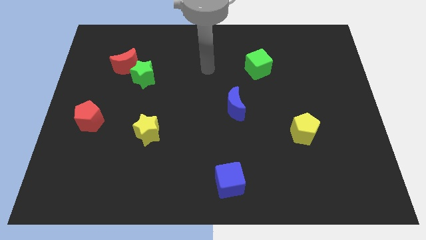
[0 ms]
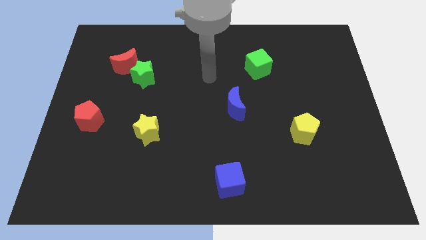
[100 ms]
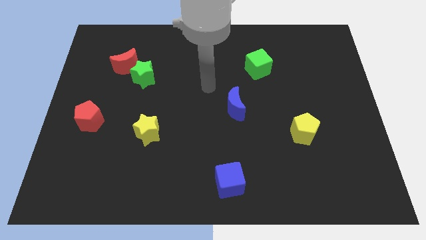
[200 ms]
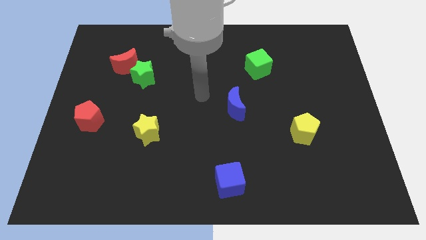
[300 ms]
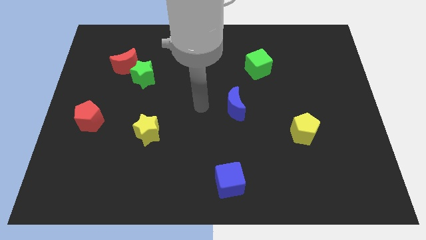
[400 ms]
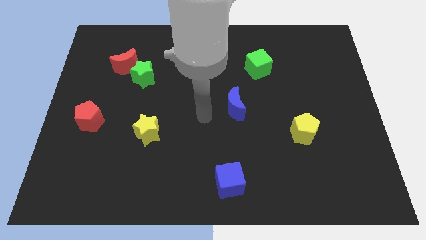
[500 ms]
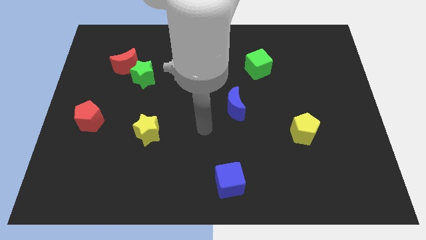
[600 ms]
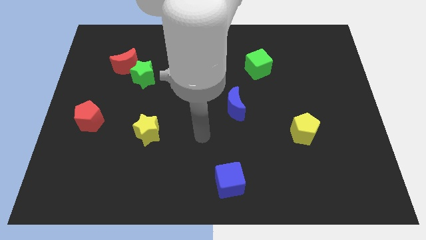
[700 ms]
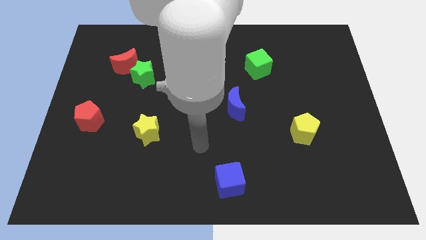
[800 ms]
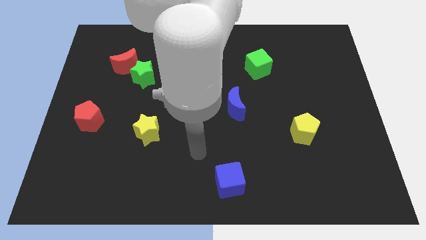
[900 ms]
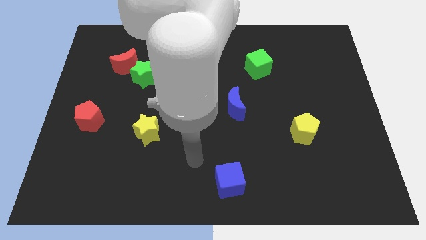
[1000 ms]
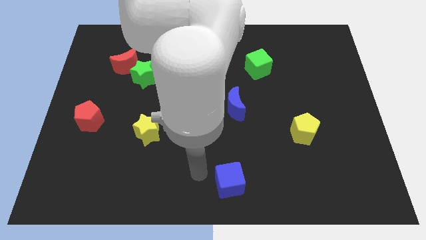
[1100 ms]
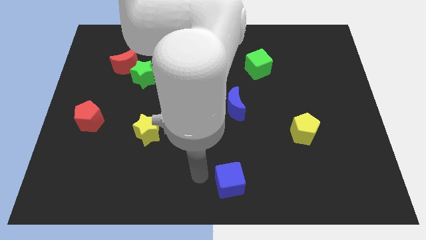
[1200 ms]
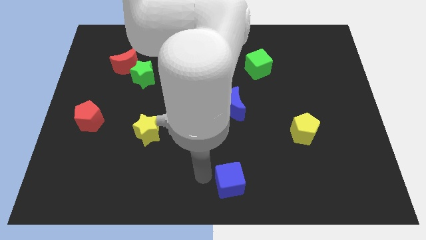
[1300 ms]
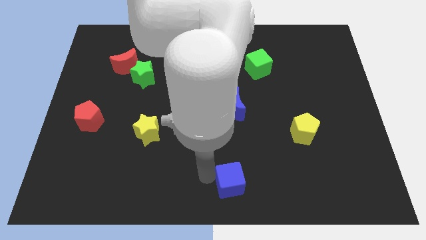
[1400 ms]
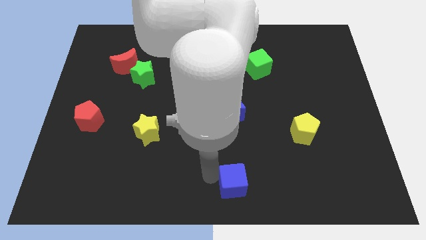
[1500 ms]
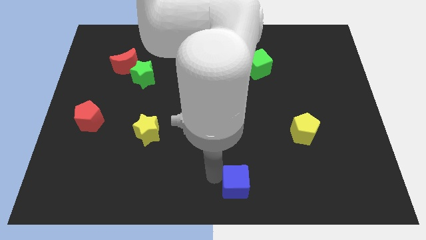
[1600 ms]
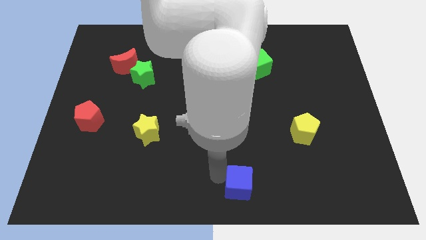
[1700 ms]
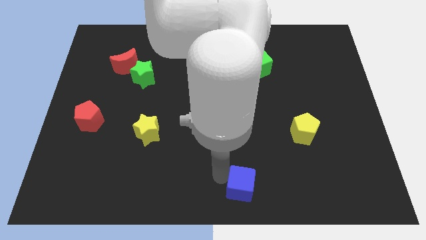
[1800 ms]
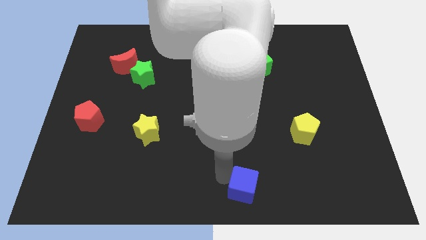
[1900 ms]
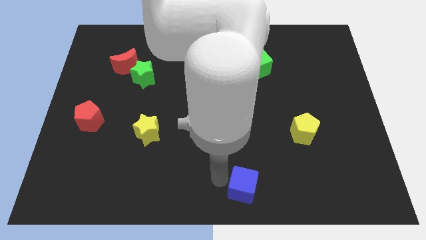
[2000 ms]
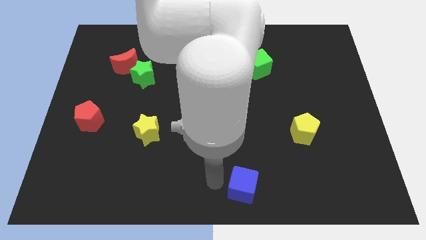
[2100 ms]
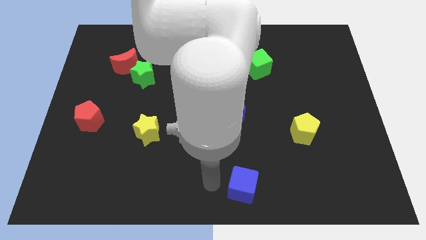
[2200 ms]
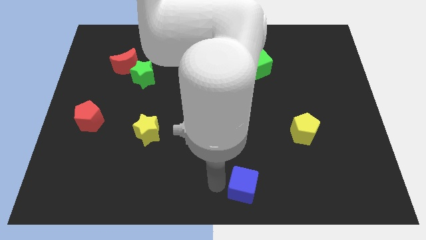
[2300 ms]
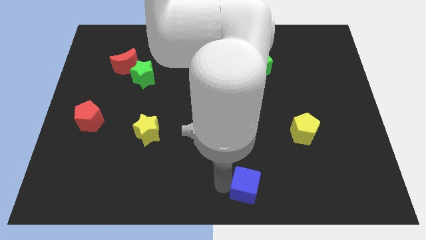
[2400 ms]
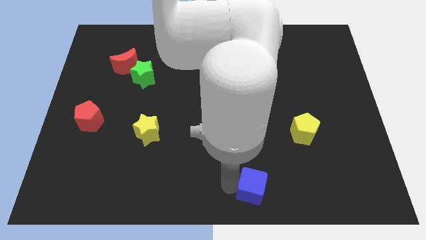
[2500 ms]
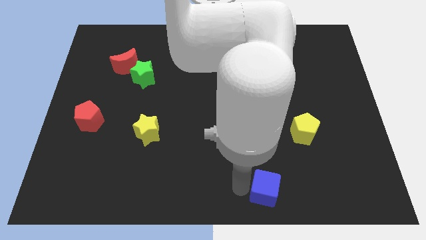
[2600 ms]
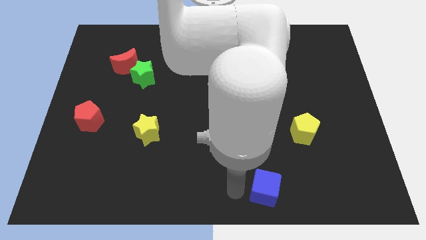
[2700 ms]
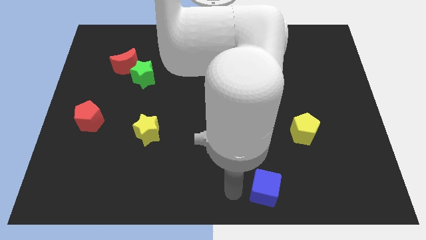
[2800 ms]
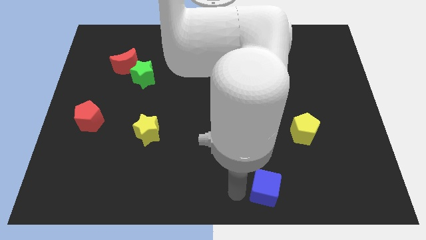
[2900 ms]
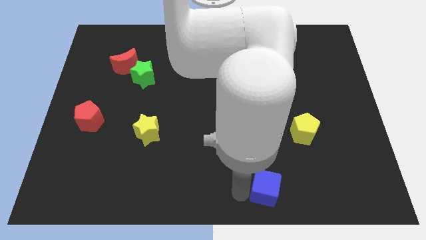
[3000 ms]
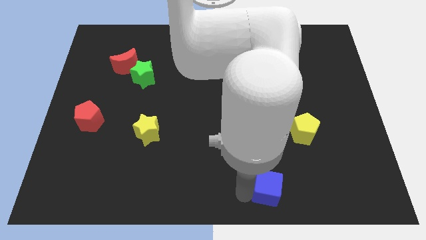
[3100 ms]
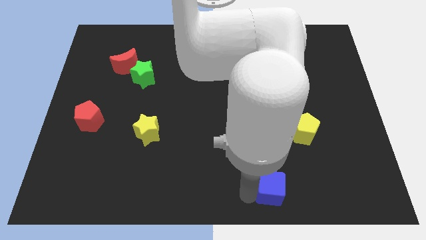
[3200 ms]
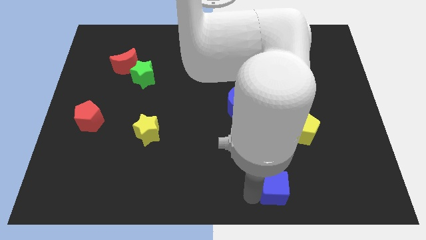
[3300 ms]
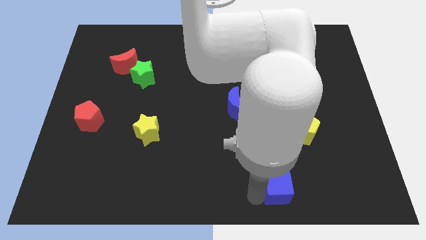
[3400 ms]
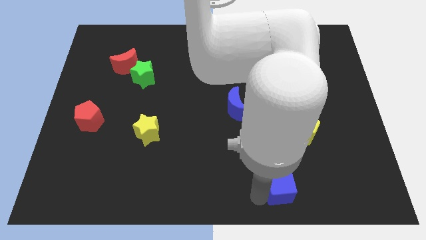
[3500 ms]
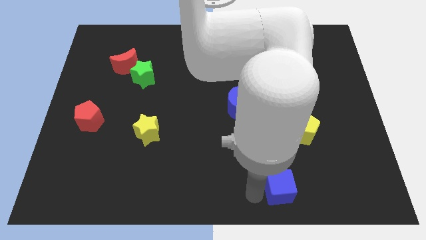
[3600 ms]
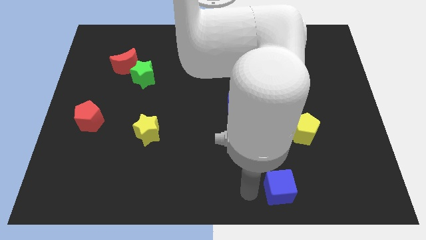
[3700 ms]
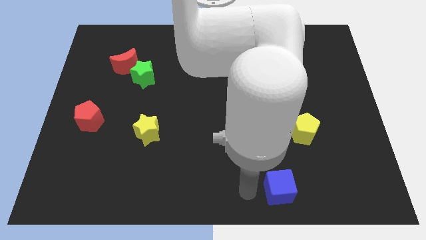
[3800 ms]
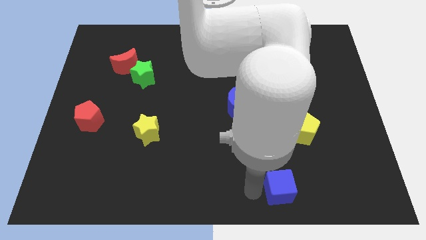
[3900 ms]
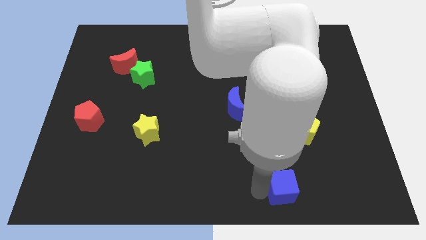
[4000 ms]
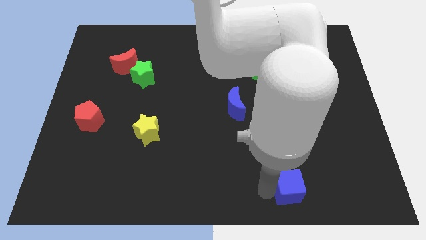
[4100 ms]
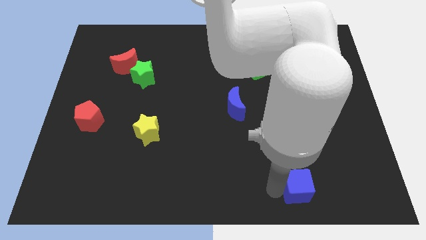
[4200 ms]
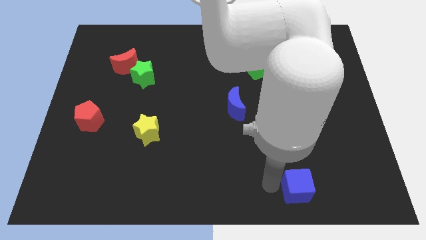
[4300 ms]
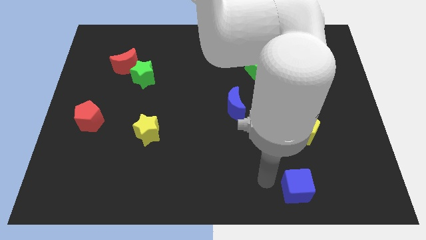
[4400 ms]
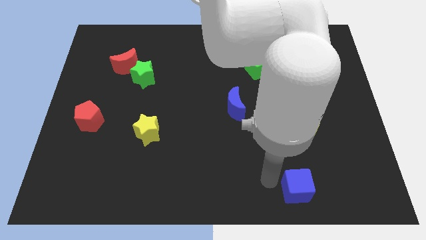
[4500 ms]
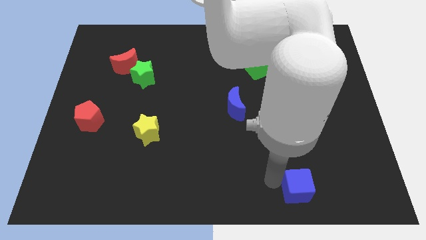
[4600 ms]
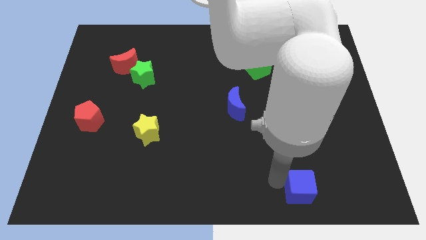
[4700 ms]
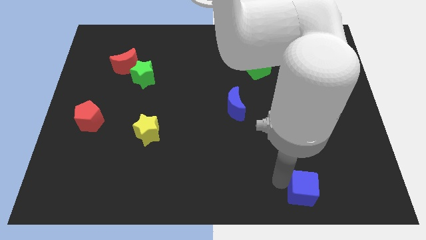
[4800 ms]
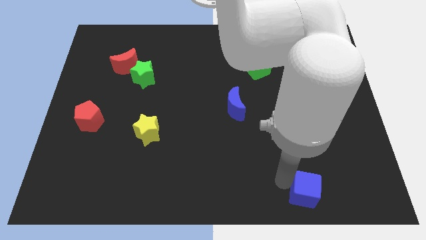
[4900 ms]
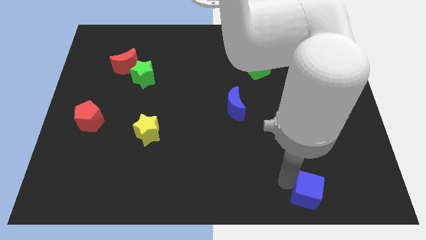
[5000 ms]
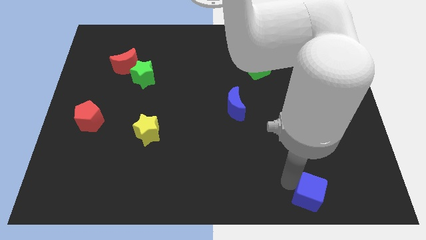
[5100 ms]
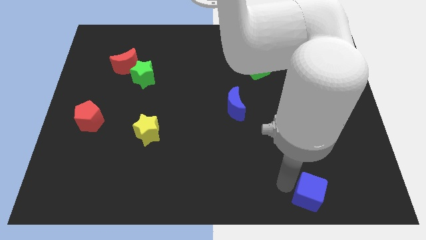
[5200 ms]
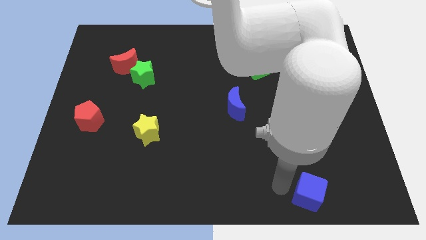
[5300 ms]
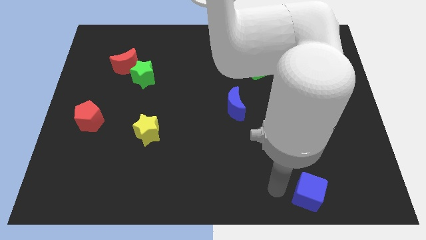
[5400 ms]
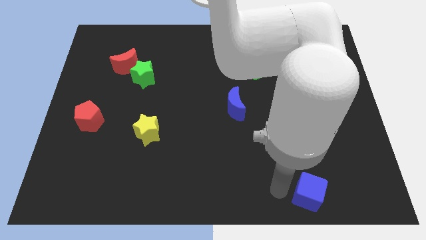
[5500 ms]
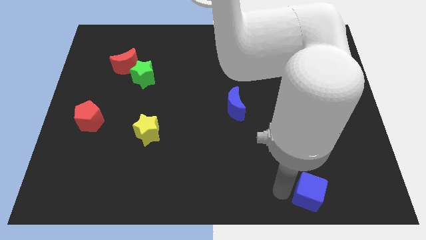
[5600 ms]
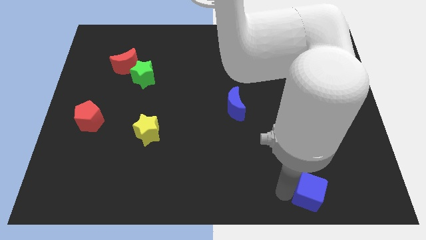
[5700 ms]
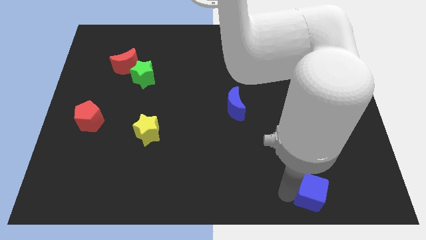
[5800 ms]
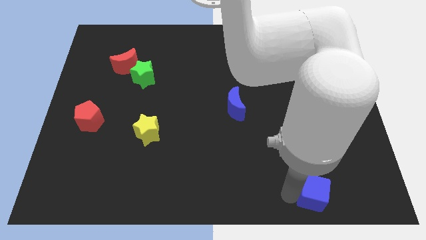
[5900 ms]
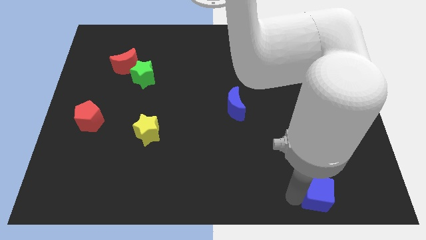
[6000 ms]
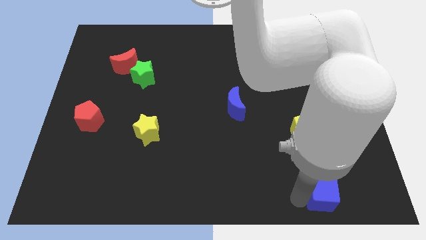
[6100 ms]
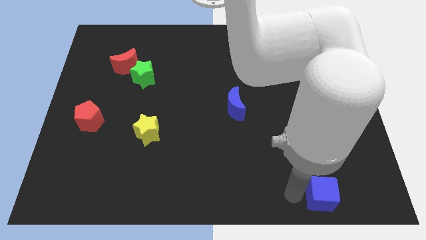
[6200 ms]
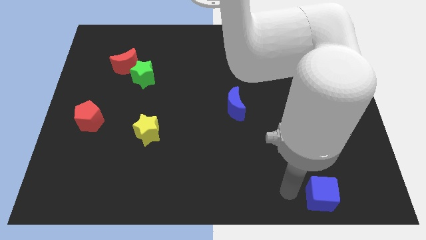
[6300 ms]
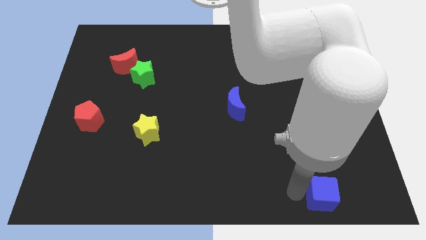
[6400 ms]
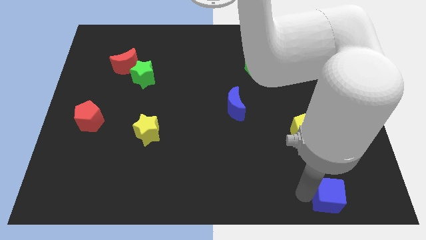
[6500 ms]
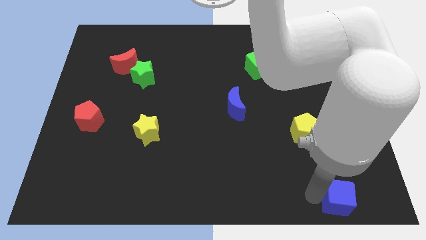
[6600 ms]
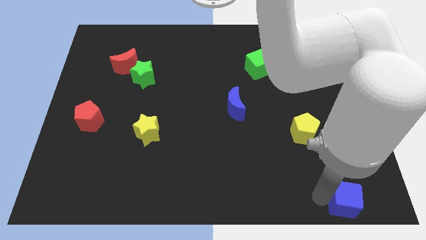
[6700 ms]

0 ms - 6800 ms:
push the blue cube to the bottom right of the board

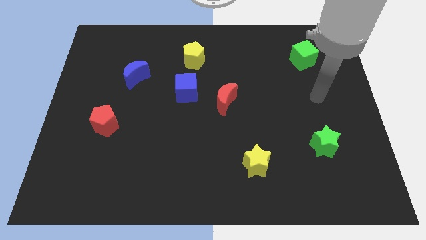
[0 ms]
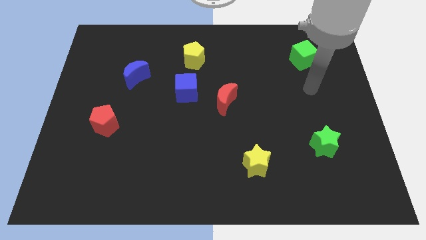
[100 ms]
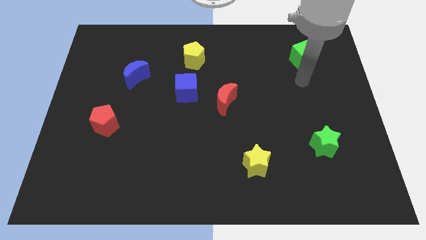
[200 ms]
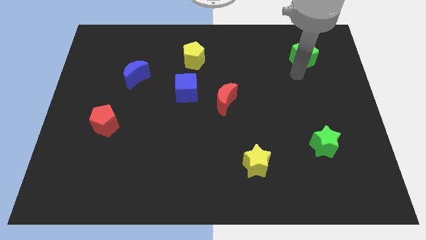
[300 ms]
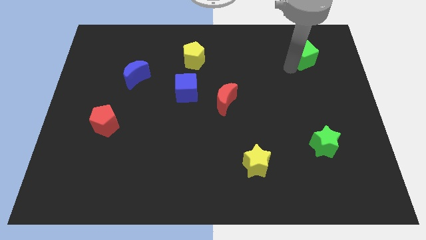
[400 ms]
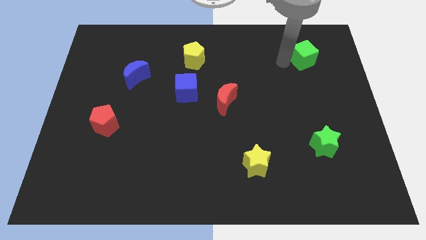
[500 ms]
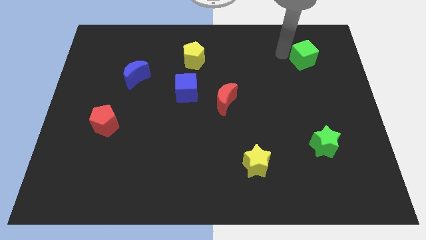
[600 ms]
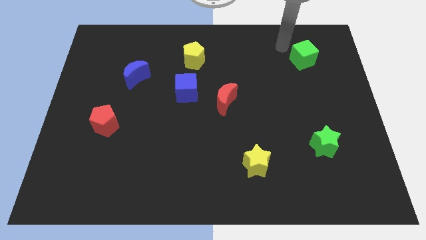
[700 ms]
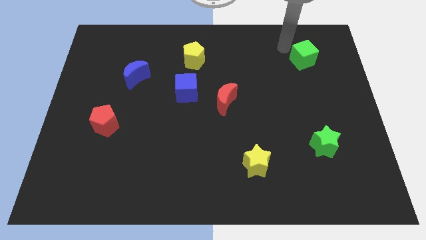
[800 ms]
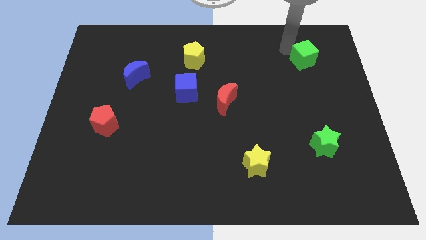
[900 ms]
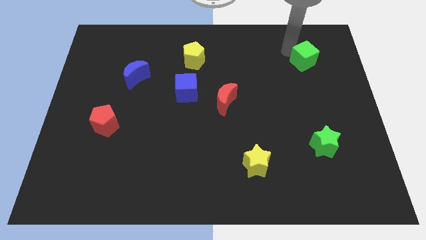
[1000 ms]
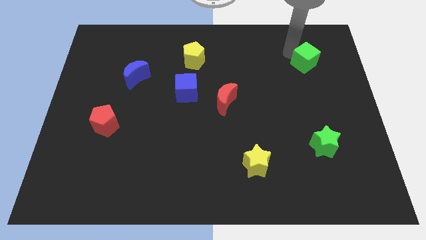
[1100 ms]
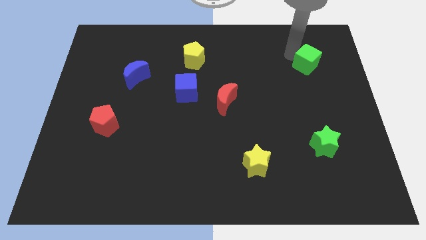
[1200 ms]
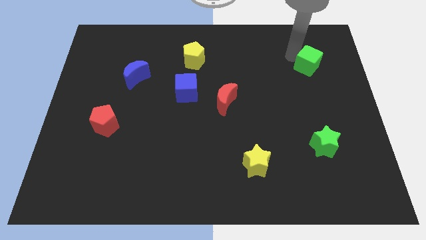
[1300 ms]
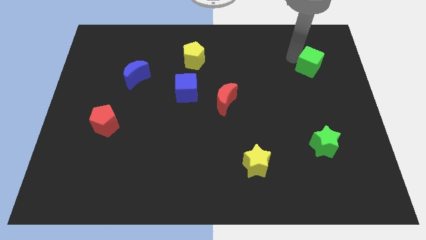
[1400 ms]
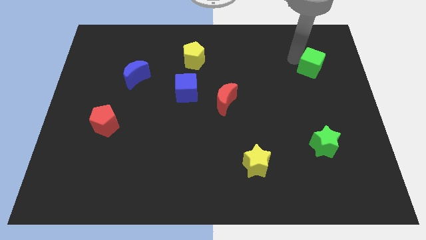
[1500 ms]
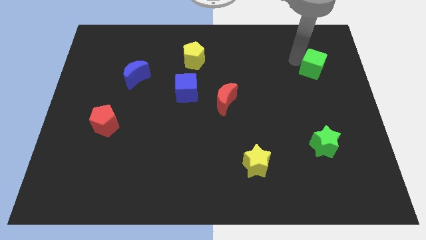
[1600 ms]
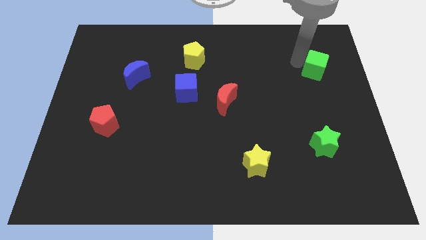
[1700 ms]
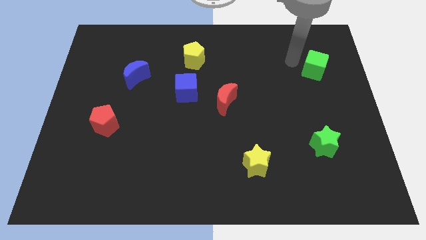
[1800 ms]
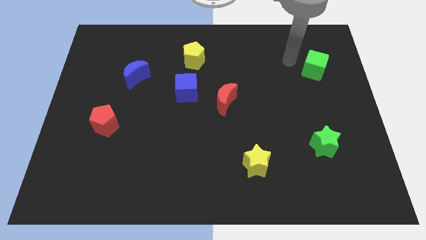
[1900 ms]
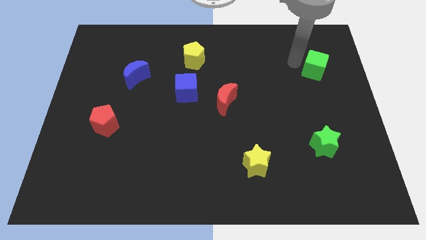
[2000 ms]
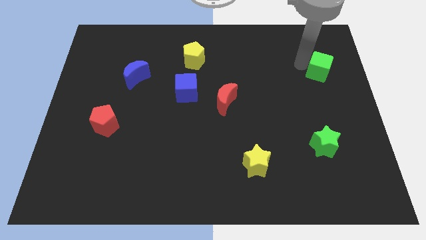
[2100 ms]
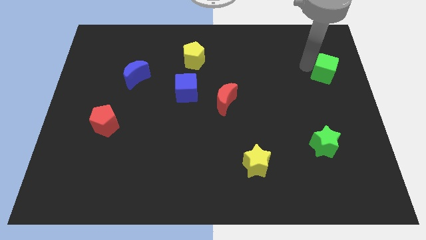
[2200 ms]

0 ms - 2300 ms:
slide the green cube to the center right
